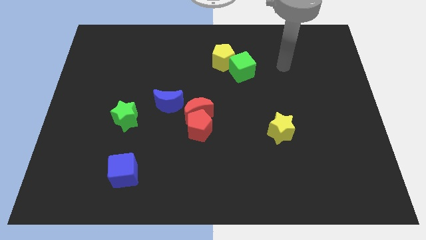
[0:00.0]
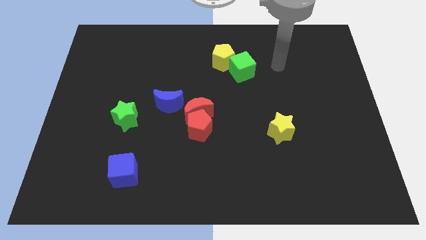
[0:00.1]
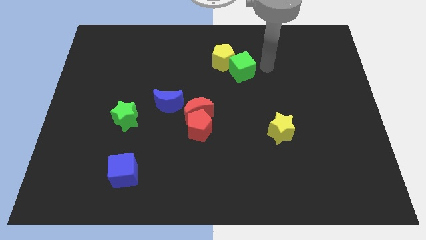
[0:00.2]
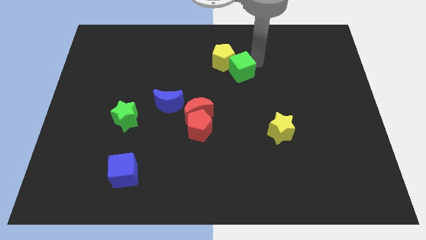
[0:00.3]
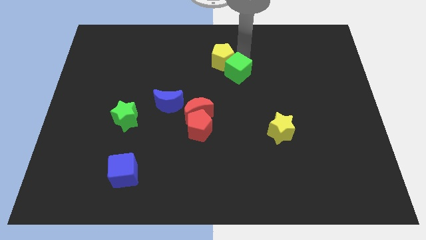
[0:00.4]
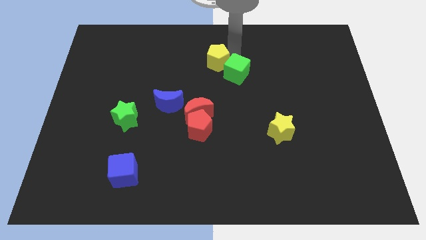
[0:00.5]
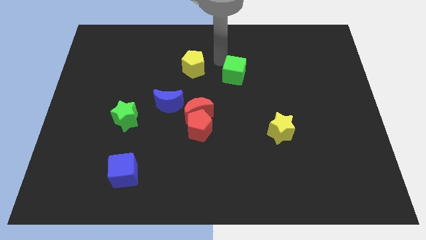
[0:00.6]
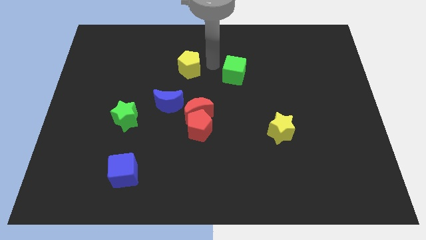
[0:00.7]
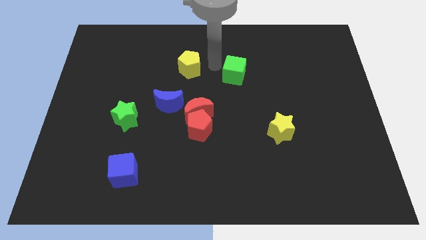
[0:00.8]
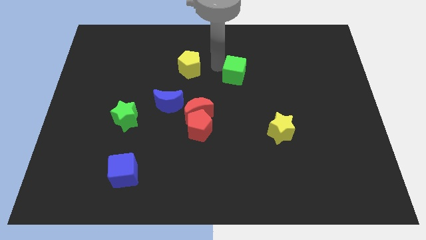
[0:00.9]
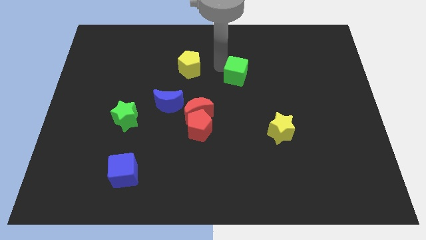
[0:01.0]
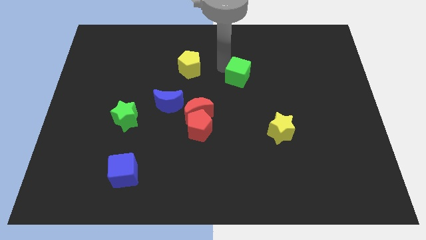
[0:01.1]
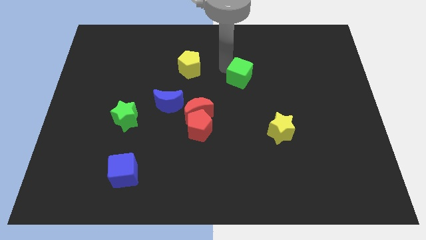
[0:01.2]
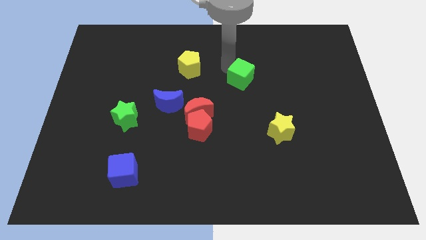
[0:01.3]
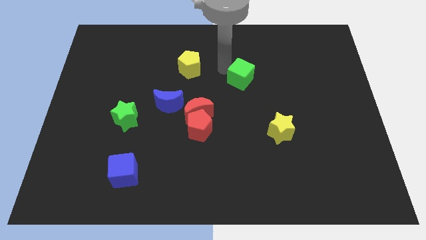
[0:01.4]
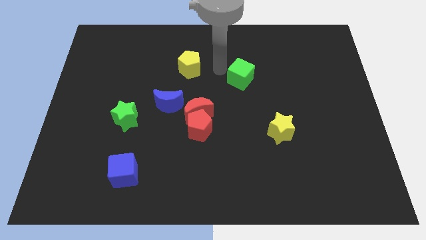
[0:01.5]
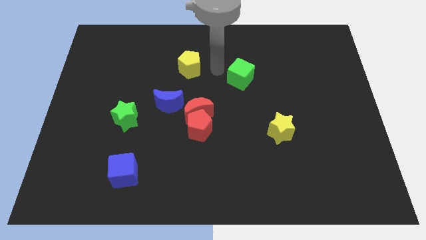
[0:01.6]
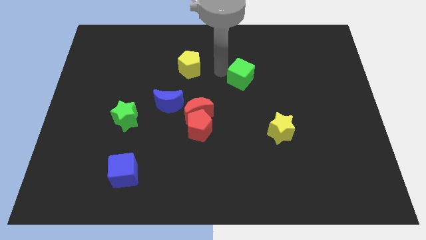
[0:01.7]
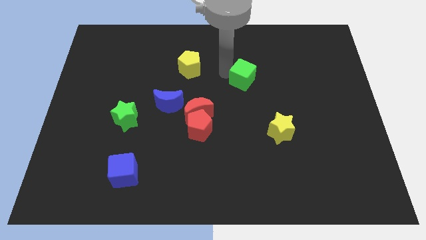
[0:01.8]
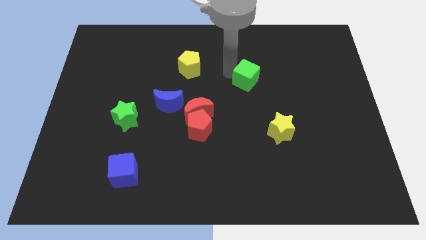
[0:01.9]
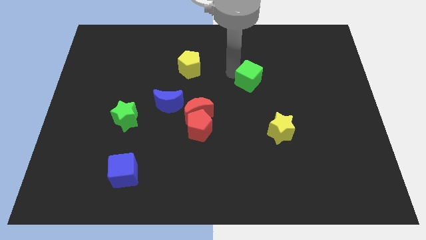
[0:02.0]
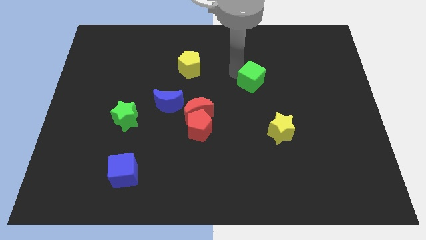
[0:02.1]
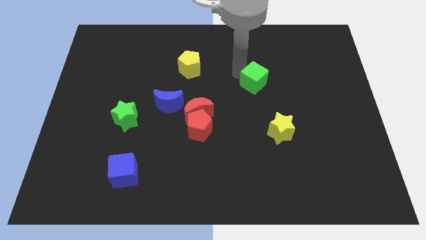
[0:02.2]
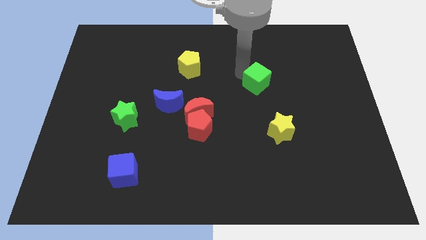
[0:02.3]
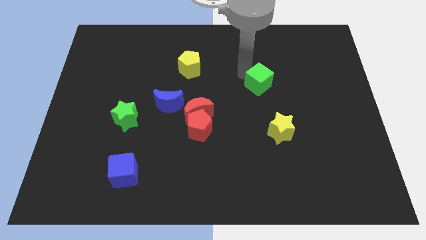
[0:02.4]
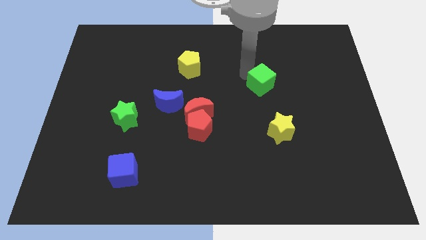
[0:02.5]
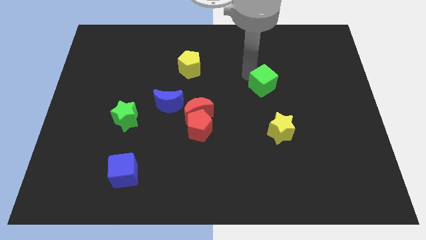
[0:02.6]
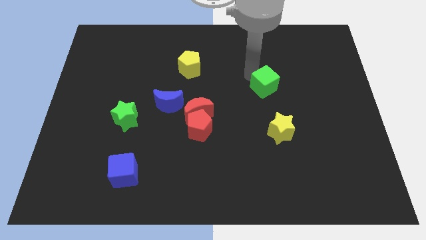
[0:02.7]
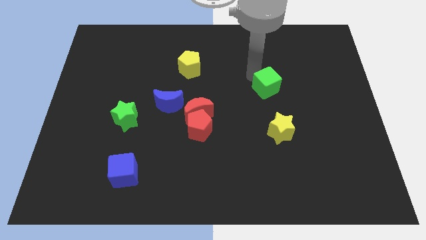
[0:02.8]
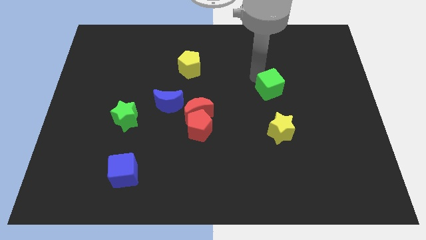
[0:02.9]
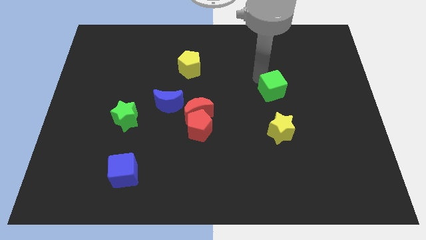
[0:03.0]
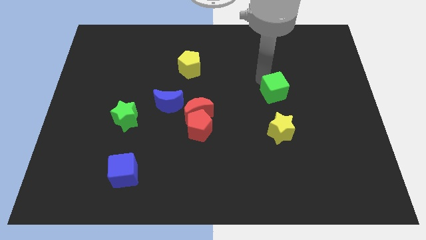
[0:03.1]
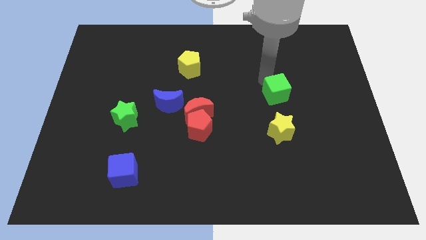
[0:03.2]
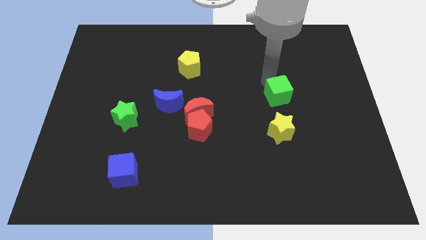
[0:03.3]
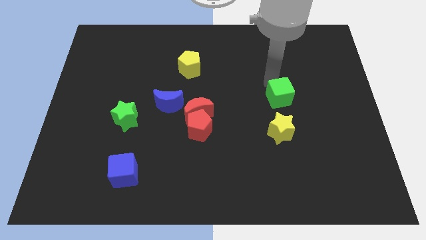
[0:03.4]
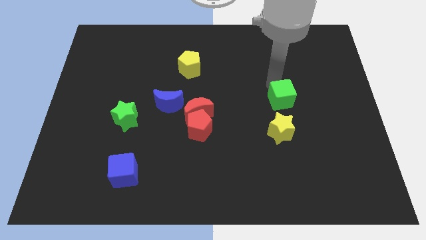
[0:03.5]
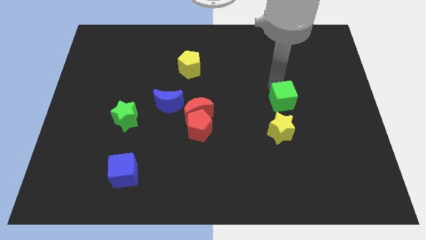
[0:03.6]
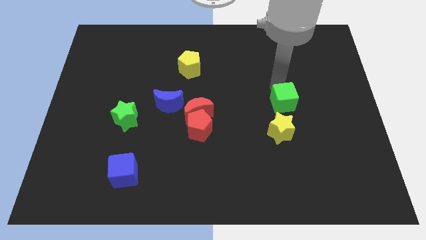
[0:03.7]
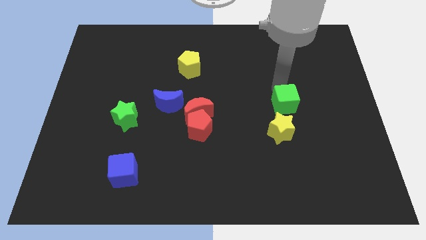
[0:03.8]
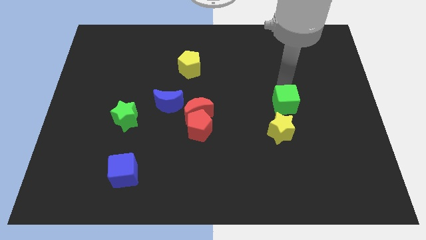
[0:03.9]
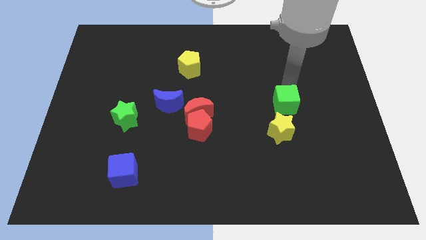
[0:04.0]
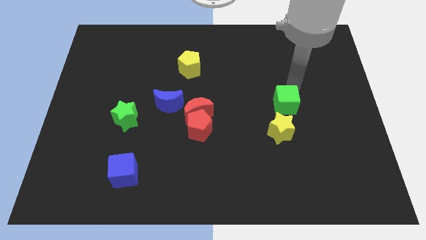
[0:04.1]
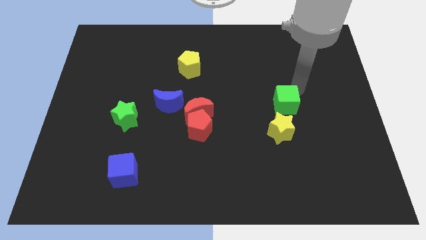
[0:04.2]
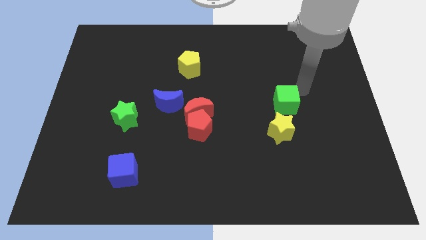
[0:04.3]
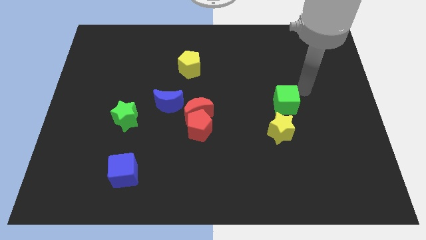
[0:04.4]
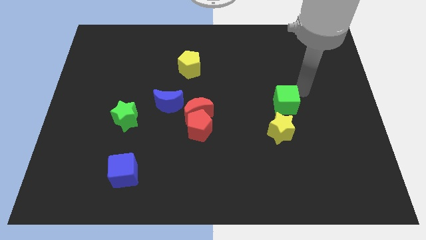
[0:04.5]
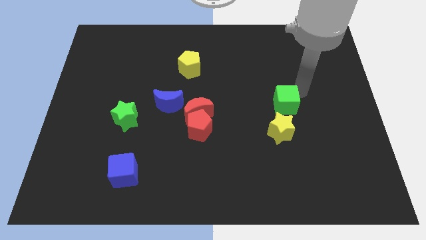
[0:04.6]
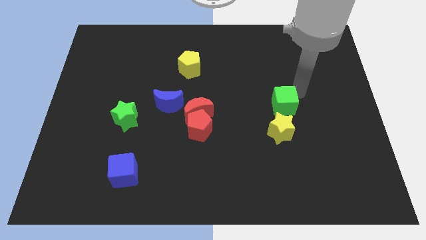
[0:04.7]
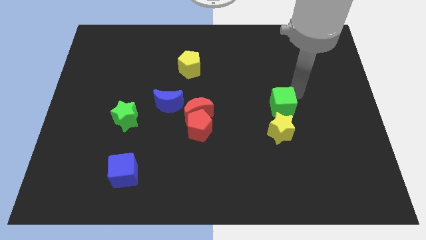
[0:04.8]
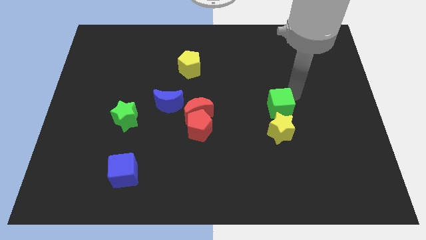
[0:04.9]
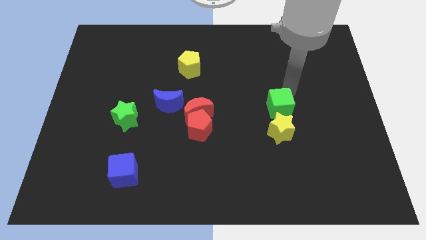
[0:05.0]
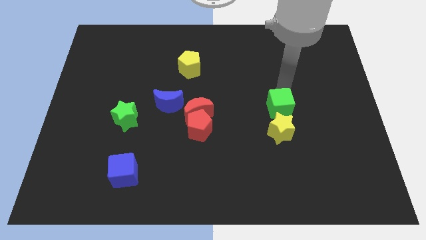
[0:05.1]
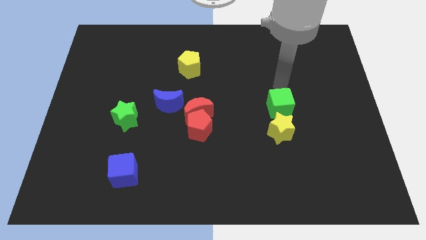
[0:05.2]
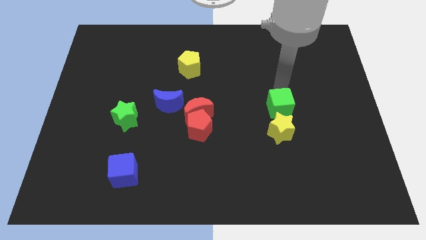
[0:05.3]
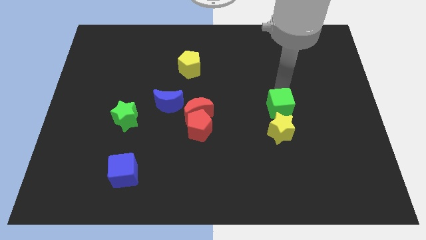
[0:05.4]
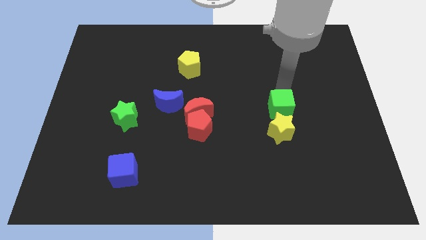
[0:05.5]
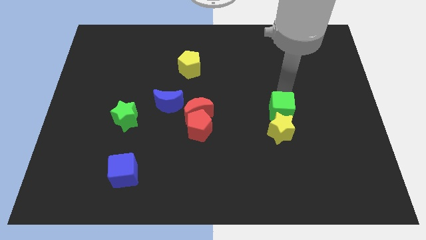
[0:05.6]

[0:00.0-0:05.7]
move the green cube next to the yellow star

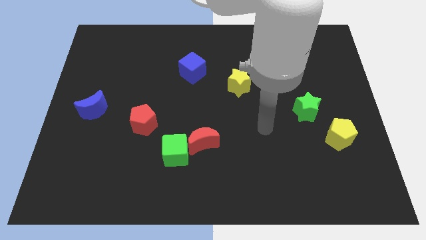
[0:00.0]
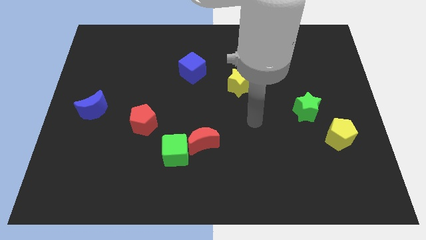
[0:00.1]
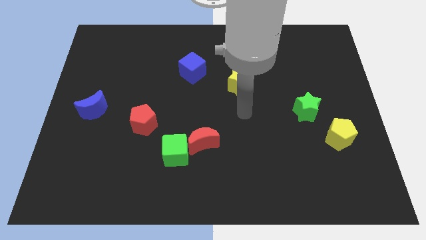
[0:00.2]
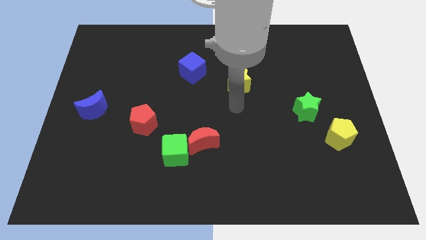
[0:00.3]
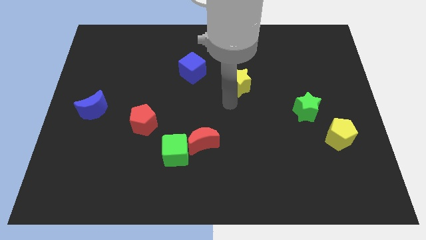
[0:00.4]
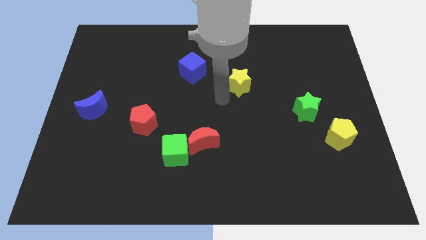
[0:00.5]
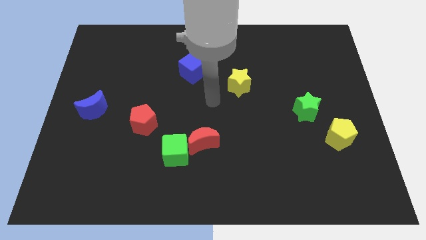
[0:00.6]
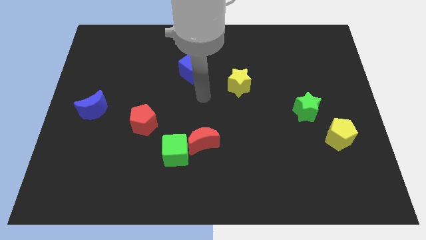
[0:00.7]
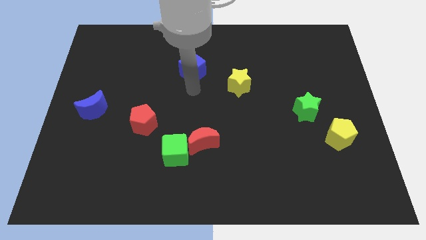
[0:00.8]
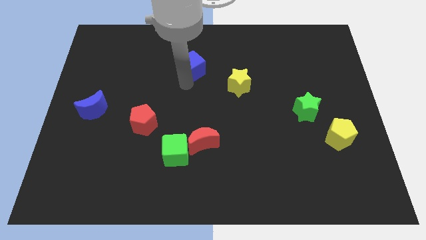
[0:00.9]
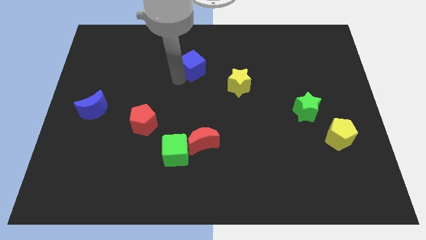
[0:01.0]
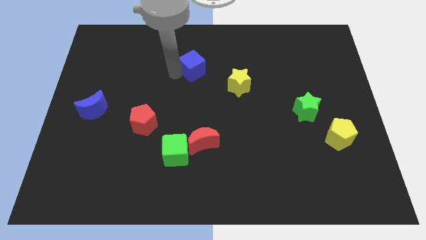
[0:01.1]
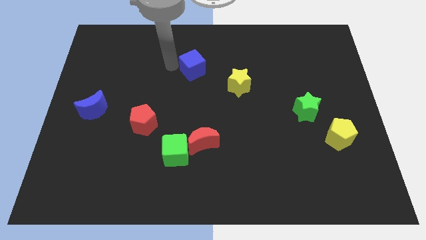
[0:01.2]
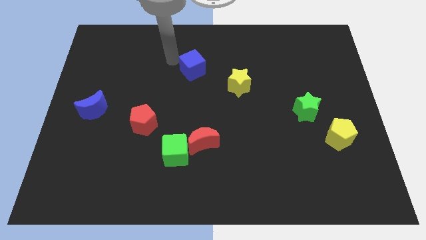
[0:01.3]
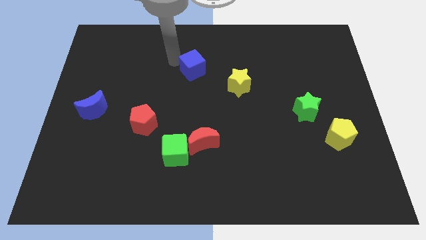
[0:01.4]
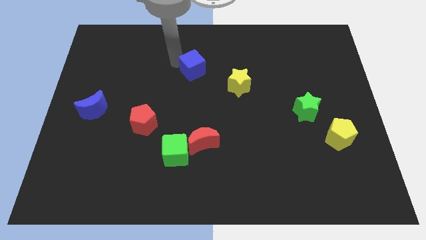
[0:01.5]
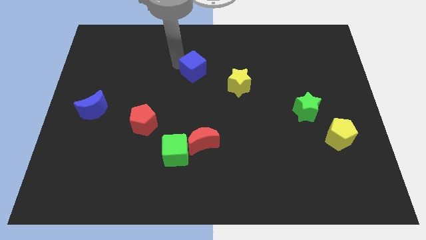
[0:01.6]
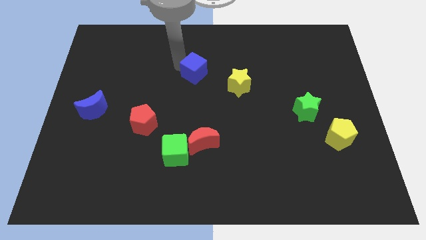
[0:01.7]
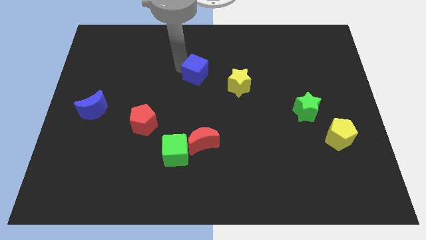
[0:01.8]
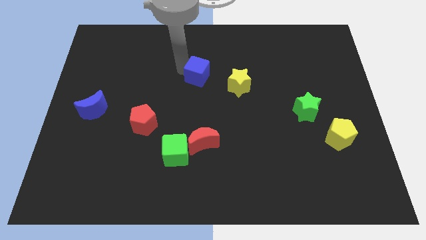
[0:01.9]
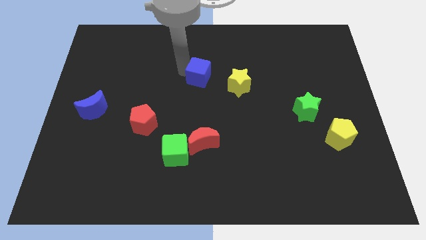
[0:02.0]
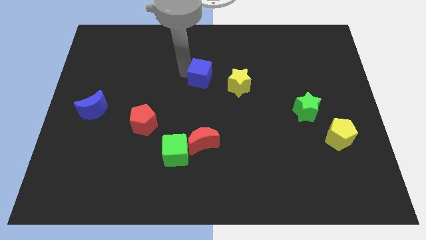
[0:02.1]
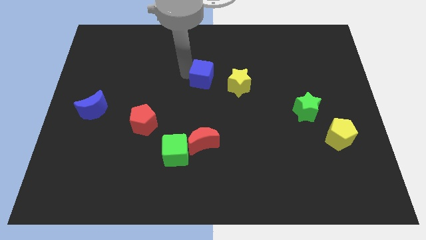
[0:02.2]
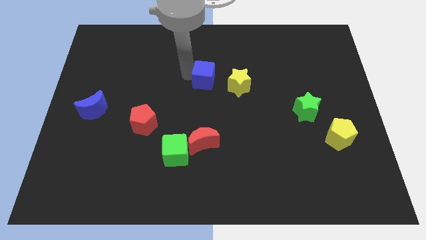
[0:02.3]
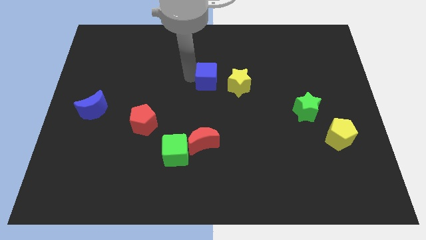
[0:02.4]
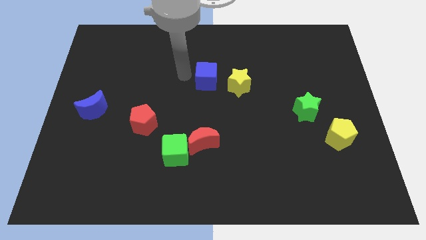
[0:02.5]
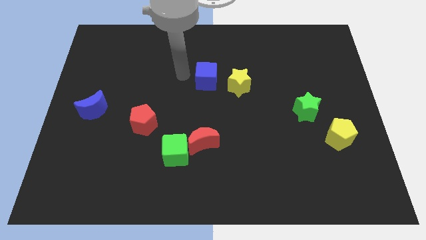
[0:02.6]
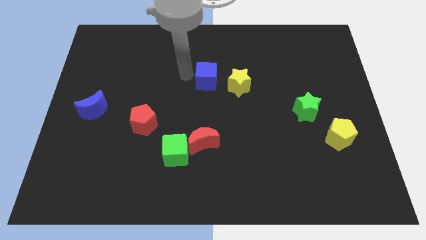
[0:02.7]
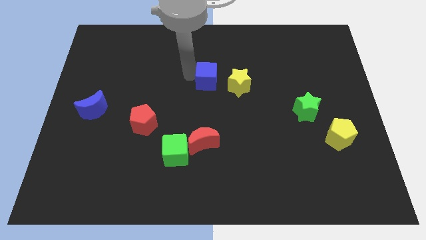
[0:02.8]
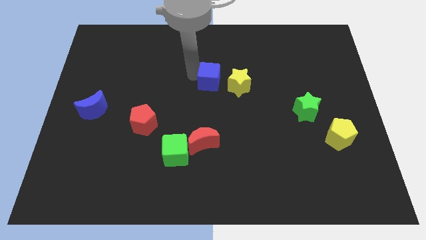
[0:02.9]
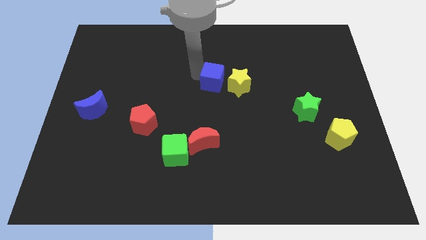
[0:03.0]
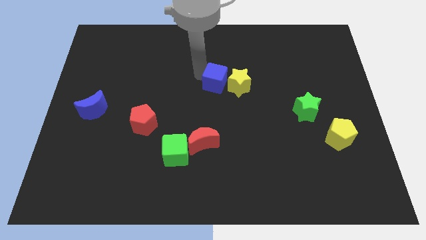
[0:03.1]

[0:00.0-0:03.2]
put the blue cube towards the yellow star
